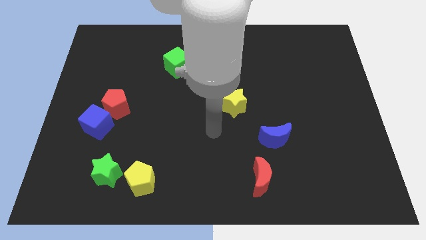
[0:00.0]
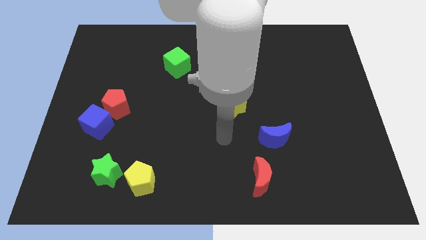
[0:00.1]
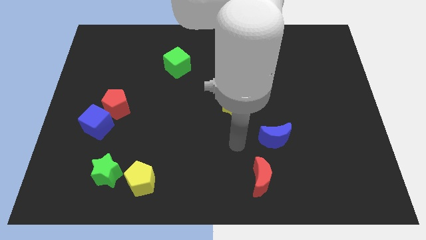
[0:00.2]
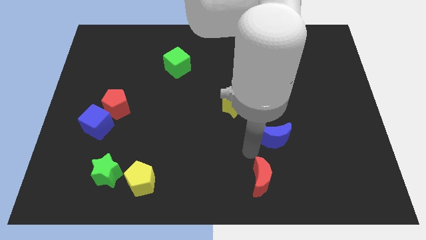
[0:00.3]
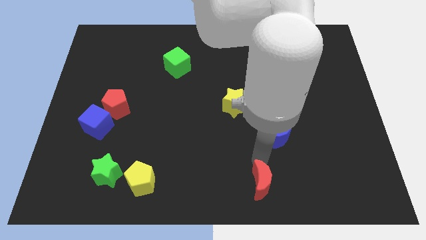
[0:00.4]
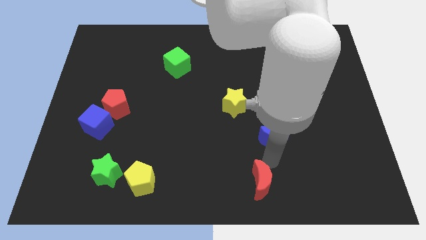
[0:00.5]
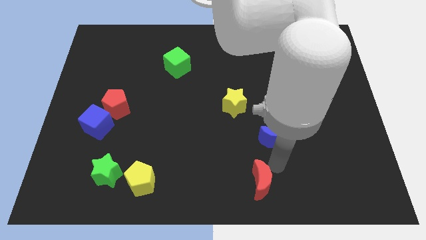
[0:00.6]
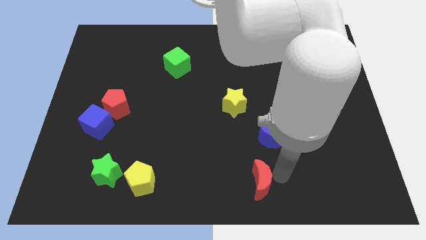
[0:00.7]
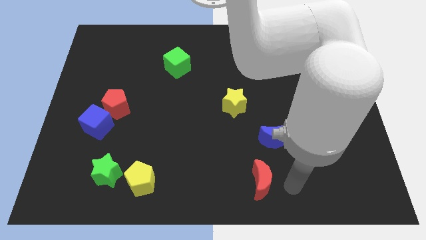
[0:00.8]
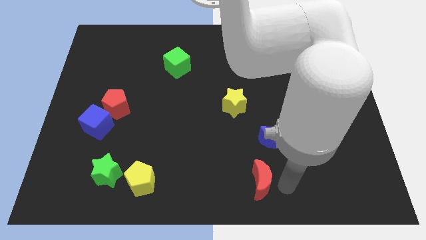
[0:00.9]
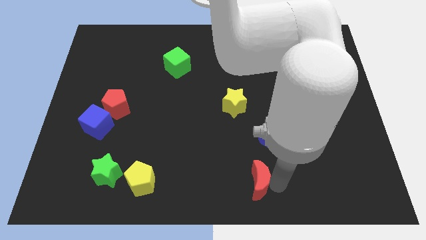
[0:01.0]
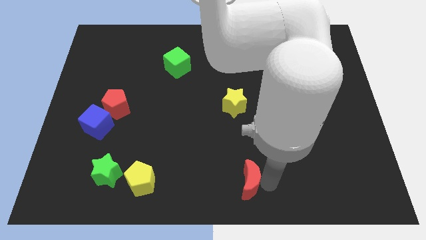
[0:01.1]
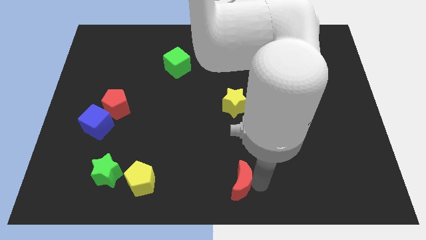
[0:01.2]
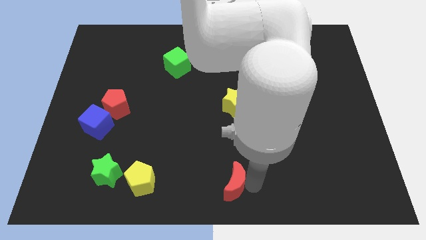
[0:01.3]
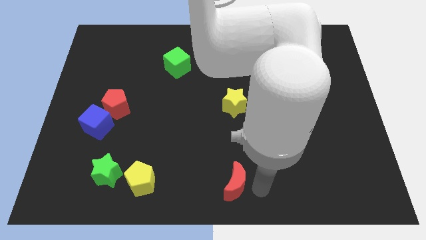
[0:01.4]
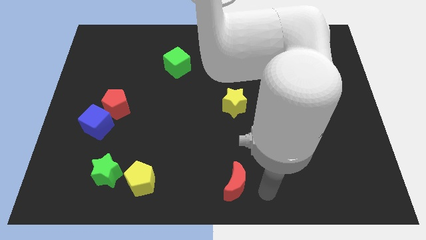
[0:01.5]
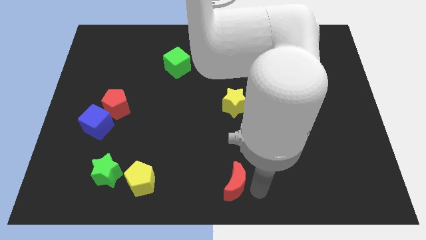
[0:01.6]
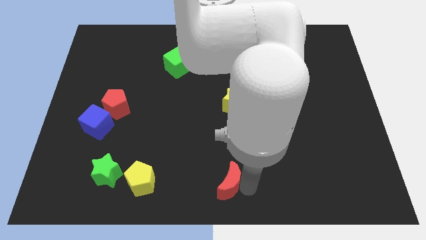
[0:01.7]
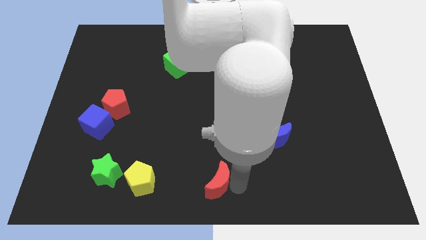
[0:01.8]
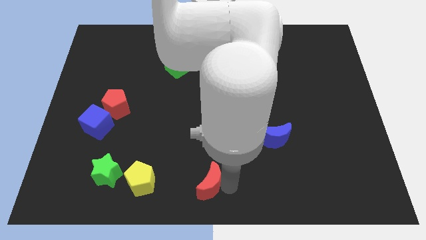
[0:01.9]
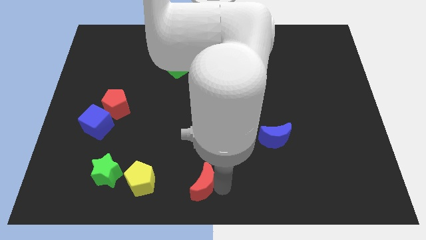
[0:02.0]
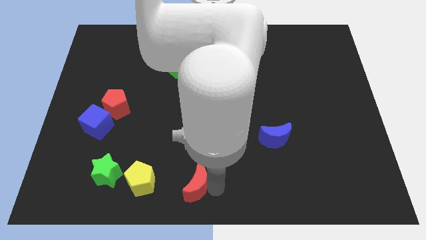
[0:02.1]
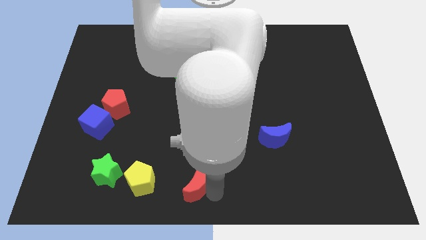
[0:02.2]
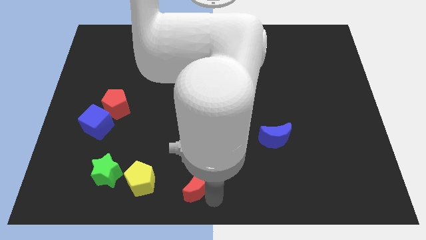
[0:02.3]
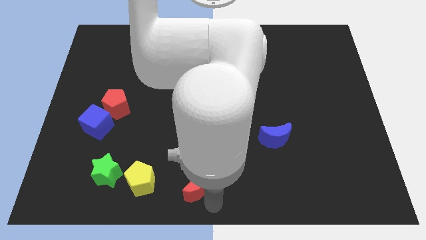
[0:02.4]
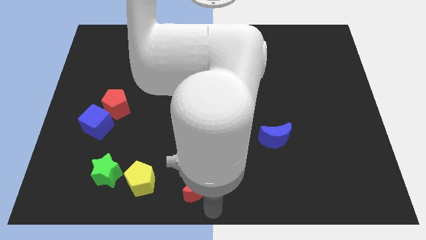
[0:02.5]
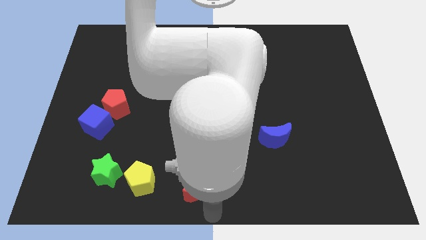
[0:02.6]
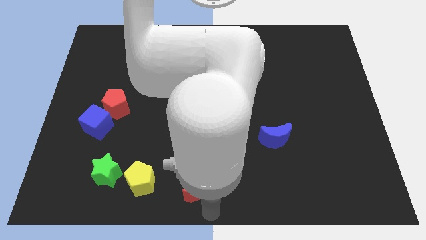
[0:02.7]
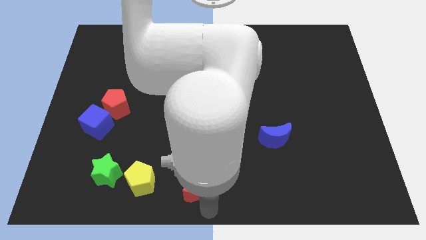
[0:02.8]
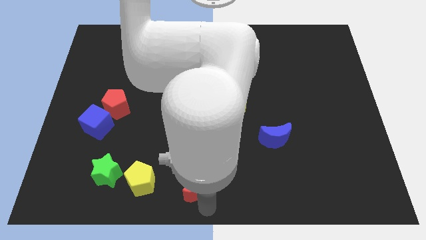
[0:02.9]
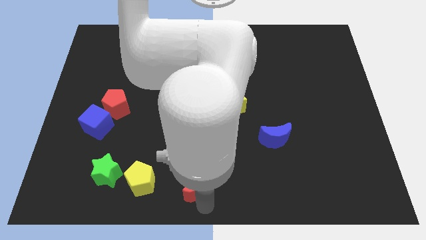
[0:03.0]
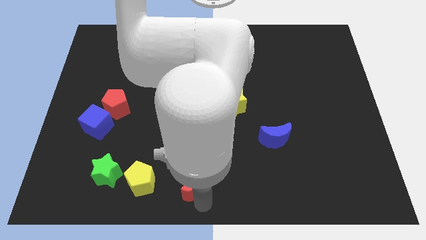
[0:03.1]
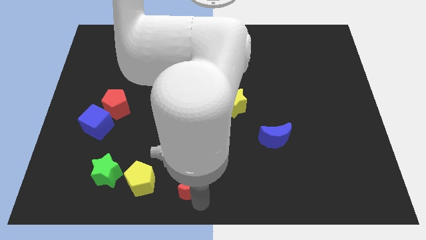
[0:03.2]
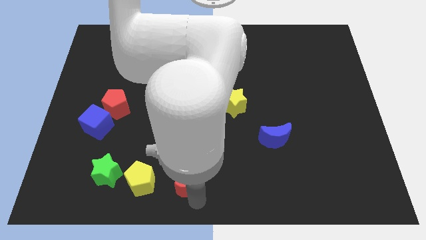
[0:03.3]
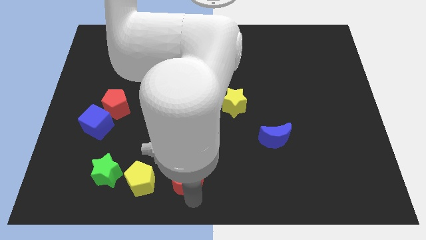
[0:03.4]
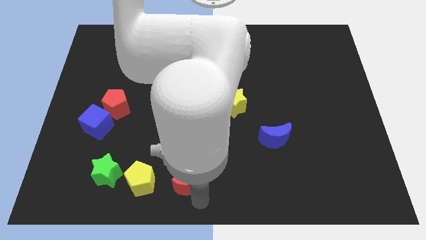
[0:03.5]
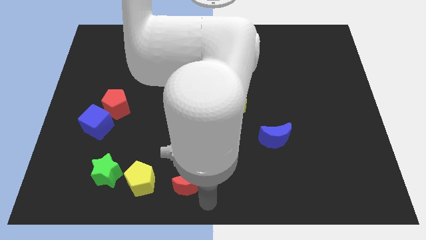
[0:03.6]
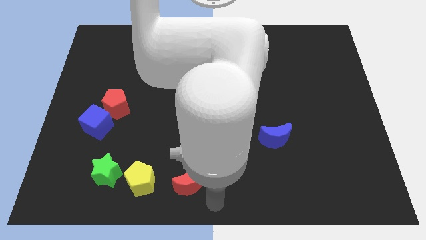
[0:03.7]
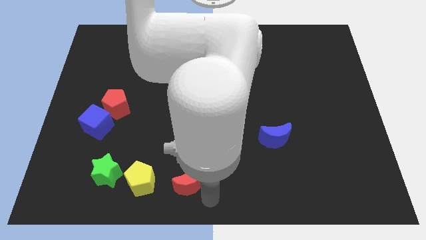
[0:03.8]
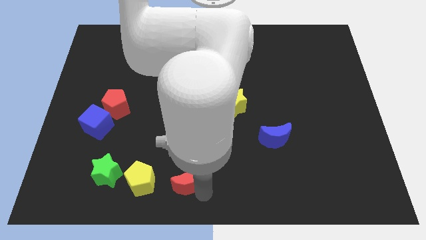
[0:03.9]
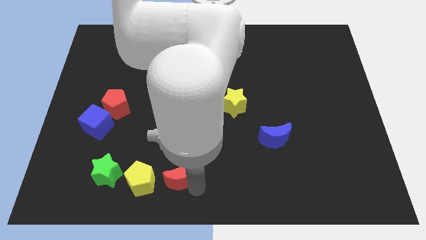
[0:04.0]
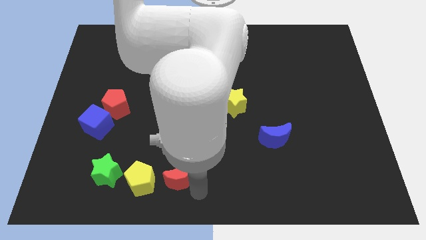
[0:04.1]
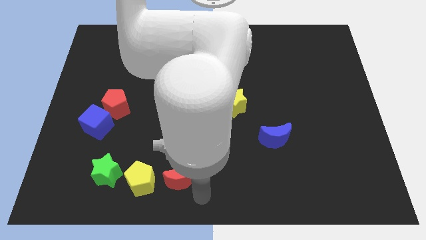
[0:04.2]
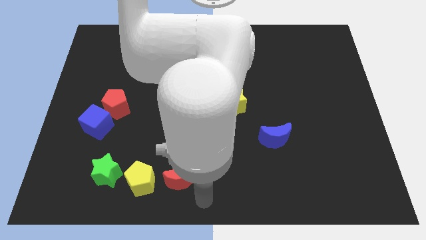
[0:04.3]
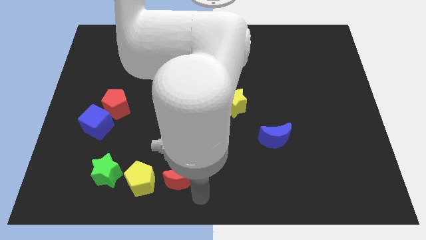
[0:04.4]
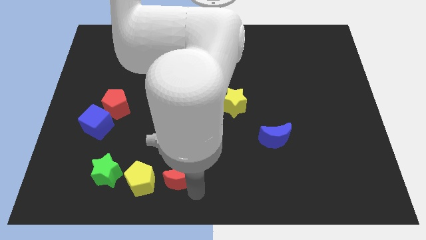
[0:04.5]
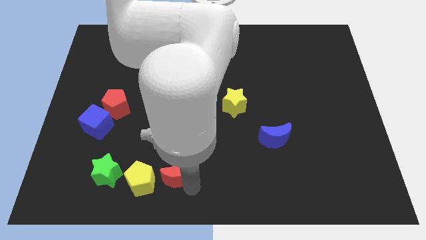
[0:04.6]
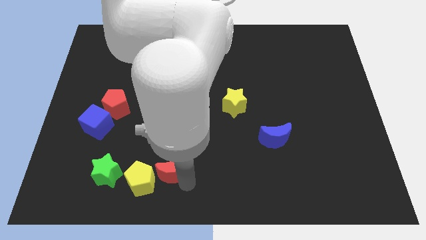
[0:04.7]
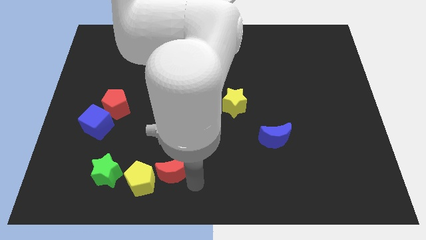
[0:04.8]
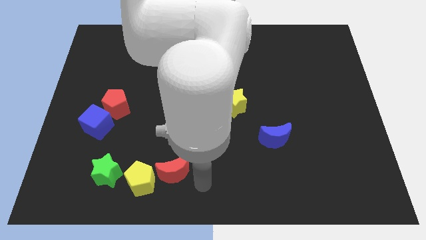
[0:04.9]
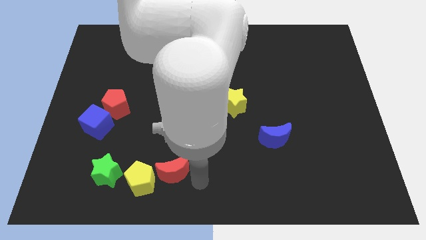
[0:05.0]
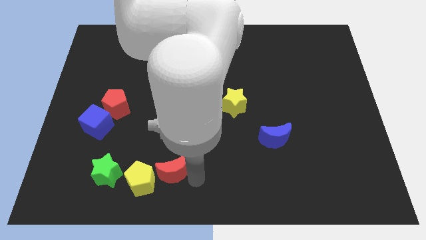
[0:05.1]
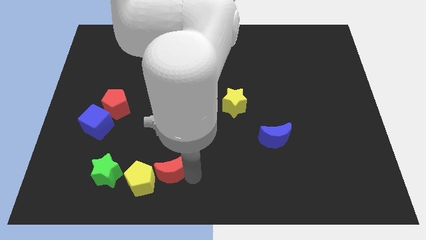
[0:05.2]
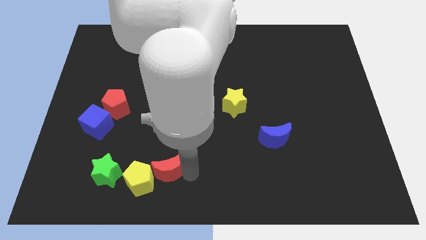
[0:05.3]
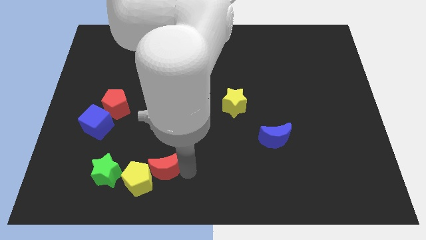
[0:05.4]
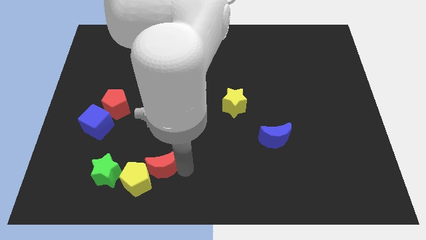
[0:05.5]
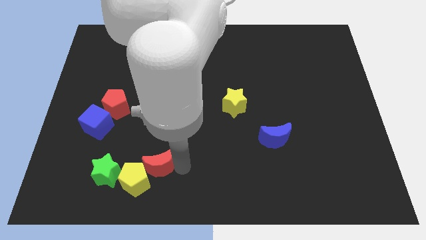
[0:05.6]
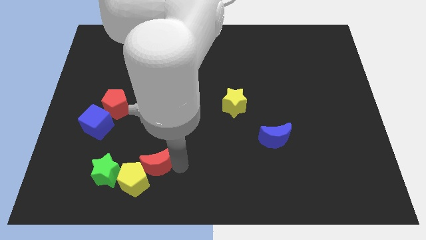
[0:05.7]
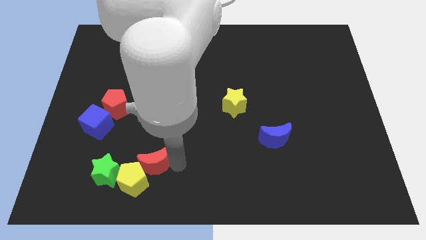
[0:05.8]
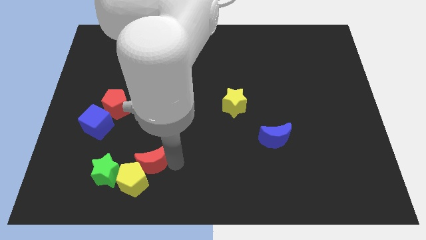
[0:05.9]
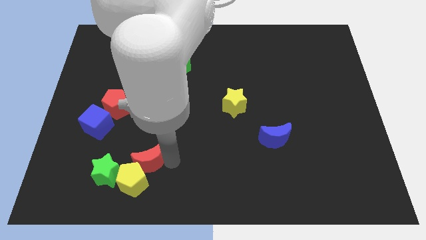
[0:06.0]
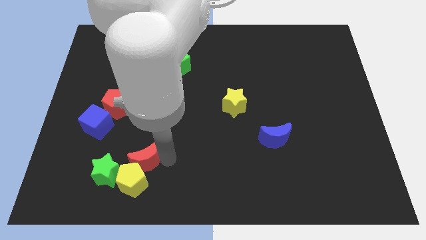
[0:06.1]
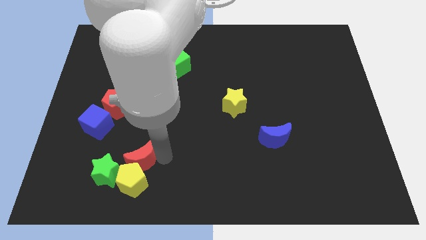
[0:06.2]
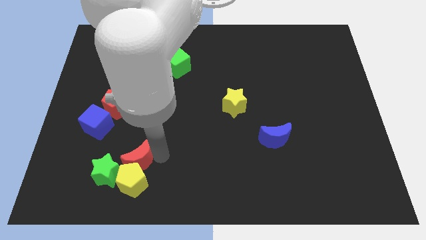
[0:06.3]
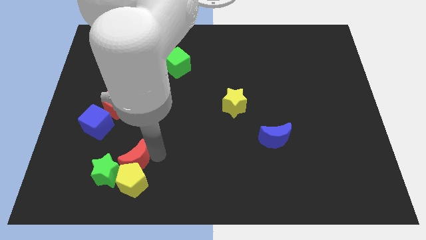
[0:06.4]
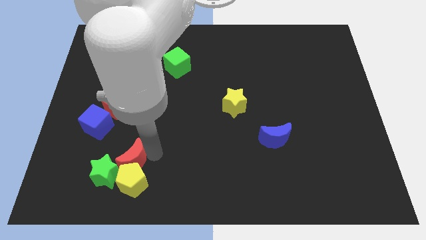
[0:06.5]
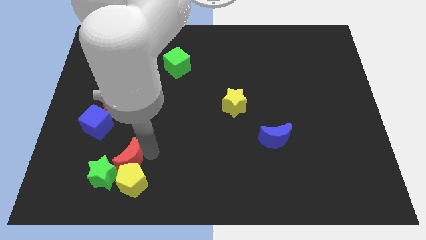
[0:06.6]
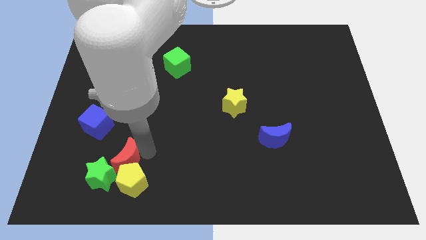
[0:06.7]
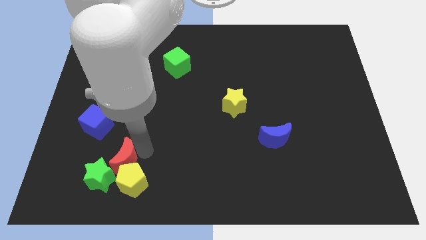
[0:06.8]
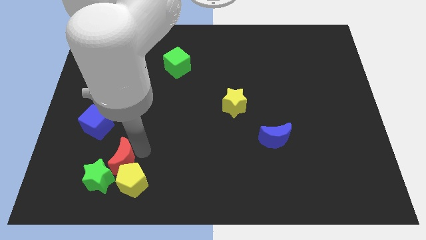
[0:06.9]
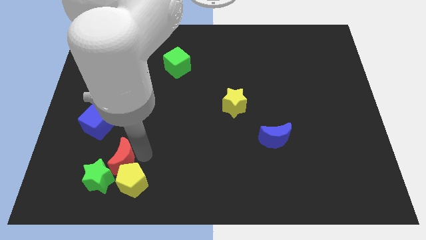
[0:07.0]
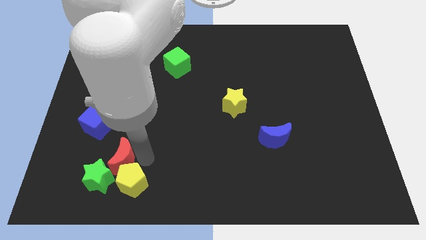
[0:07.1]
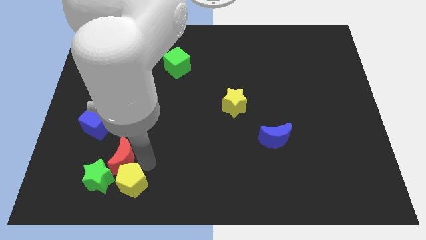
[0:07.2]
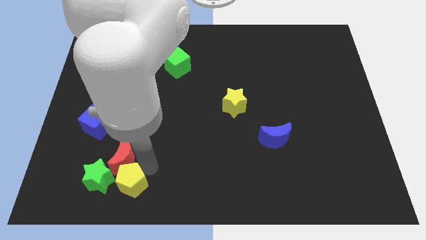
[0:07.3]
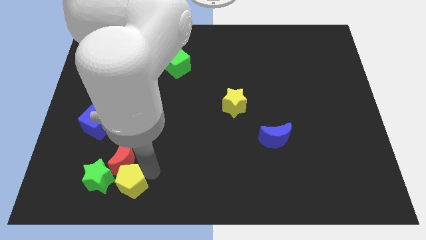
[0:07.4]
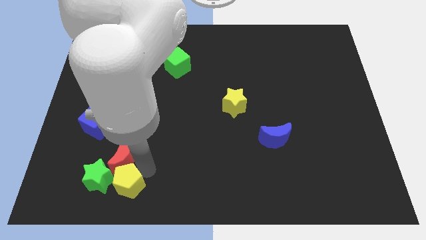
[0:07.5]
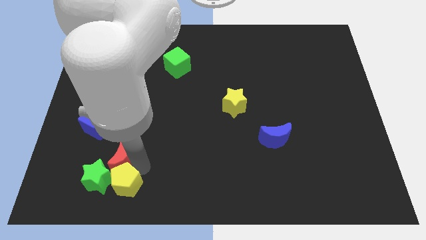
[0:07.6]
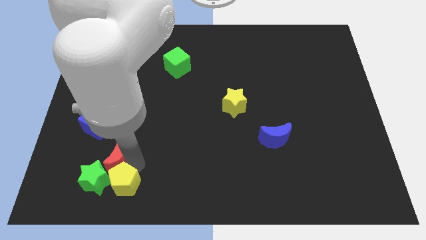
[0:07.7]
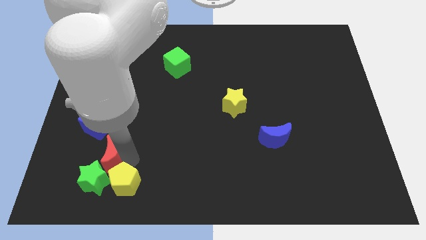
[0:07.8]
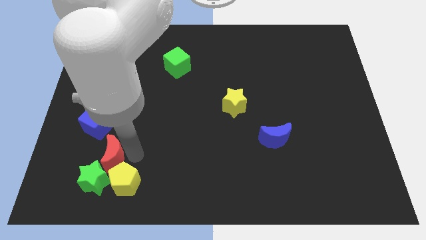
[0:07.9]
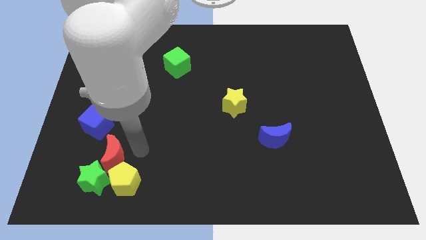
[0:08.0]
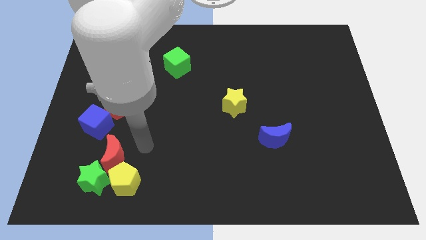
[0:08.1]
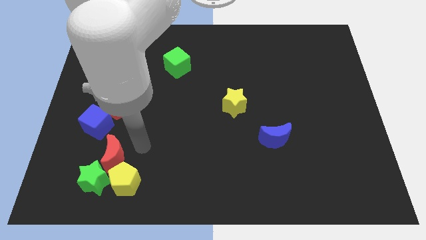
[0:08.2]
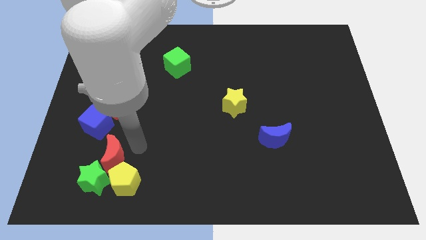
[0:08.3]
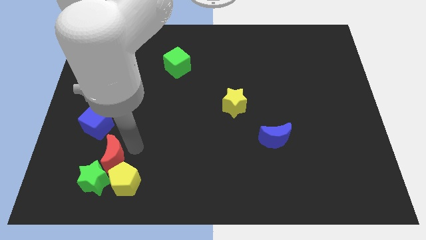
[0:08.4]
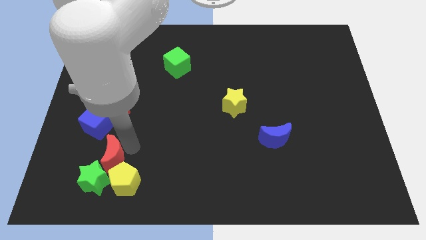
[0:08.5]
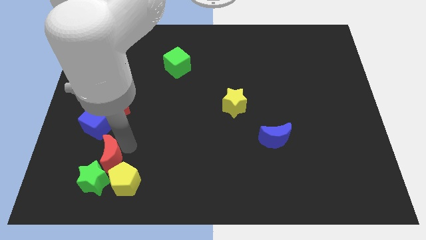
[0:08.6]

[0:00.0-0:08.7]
move the red moon below the blue cube
